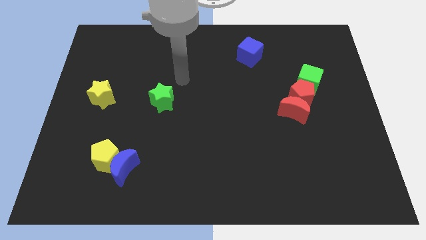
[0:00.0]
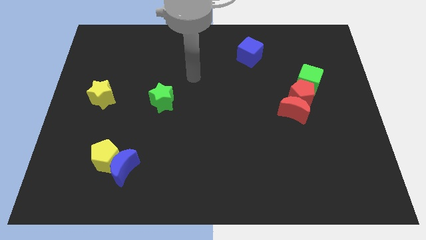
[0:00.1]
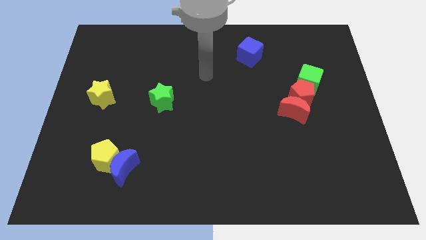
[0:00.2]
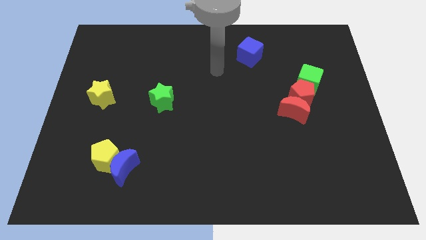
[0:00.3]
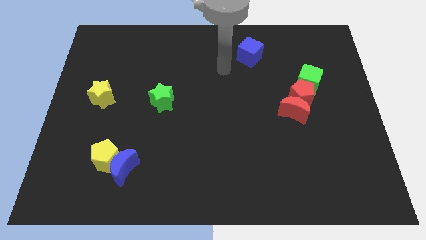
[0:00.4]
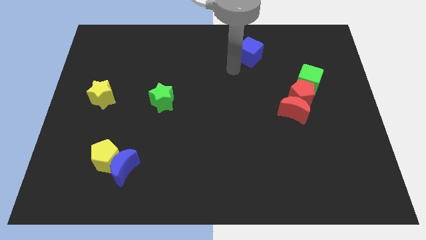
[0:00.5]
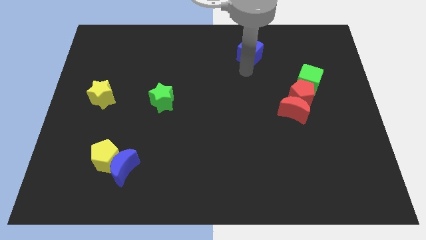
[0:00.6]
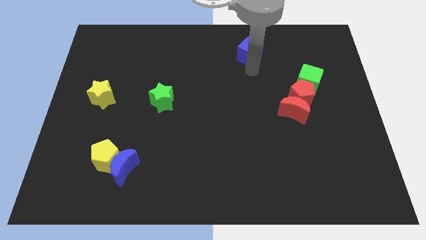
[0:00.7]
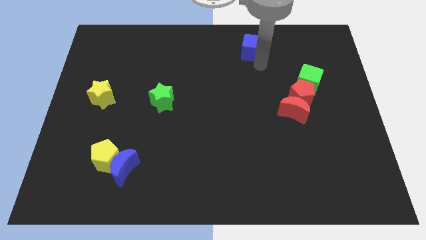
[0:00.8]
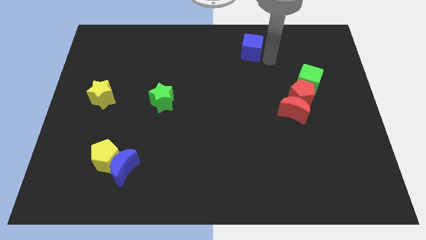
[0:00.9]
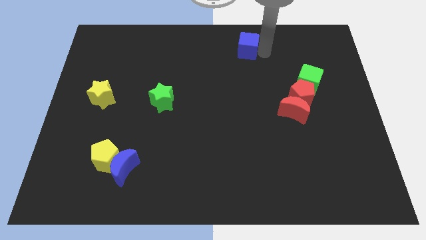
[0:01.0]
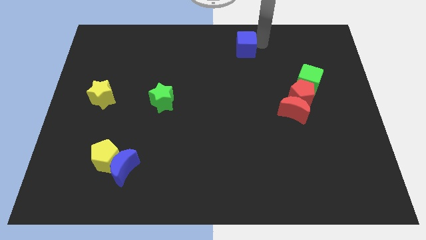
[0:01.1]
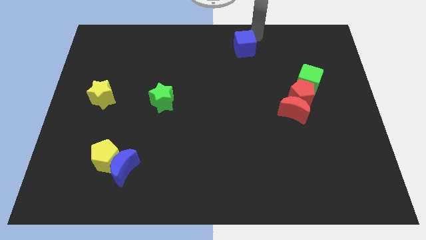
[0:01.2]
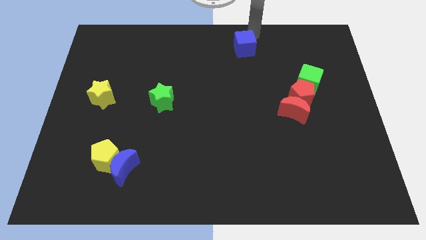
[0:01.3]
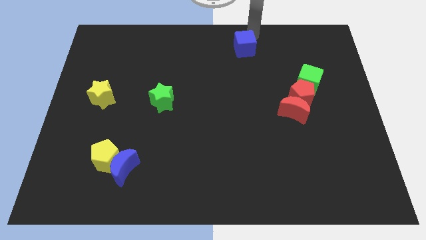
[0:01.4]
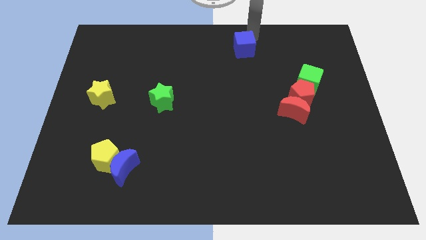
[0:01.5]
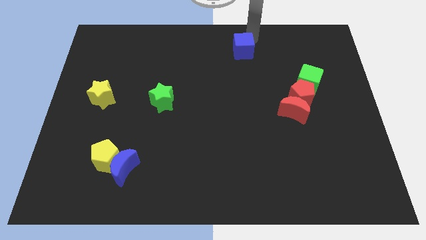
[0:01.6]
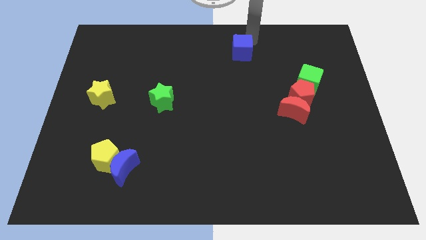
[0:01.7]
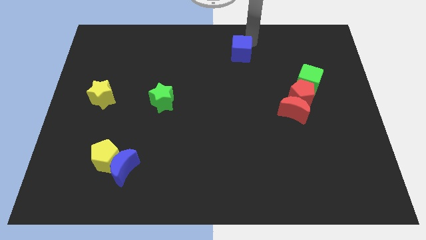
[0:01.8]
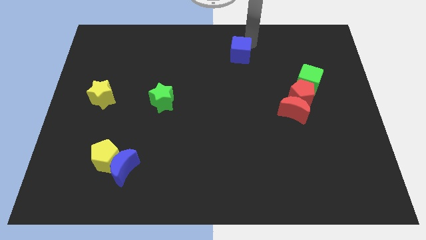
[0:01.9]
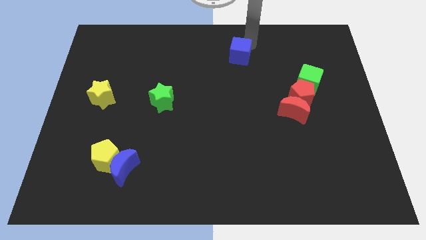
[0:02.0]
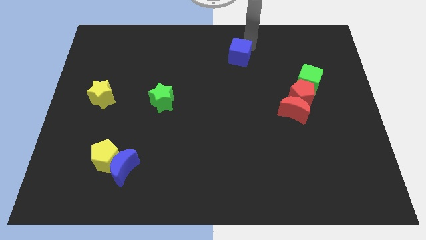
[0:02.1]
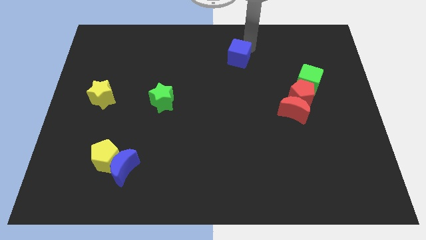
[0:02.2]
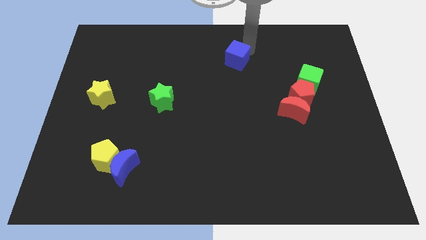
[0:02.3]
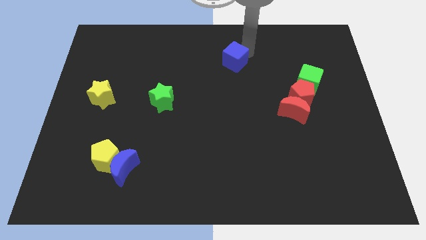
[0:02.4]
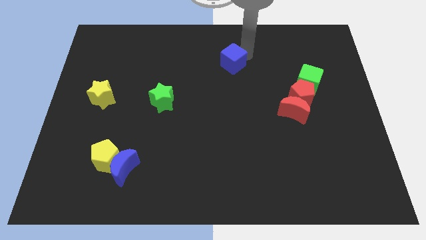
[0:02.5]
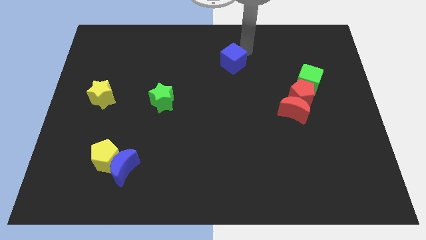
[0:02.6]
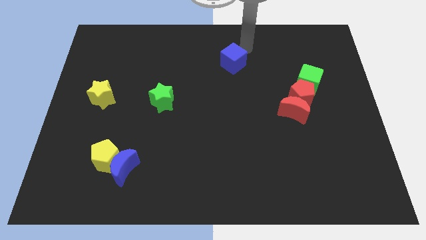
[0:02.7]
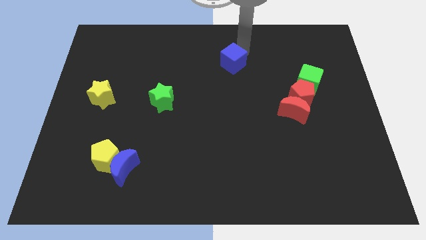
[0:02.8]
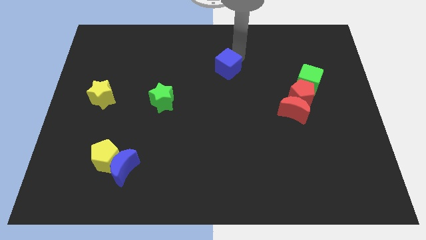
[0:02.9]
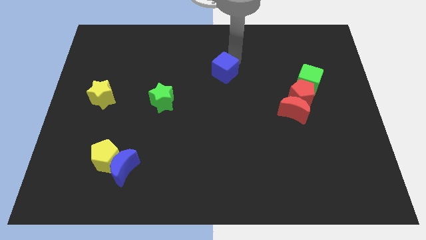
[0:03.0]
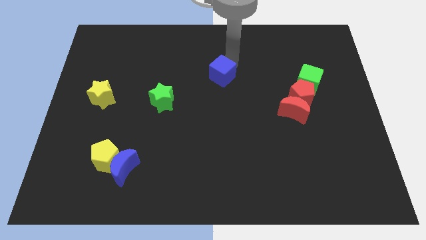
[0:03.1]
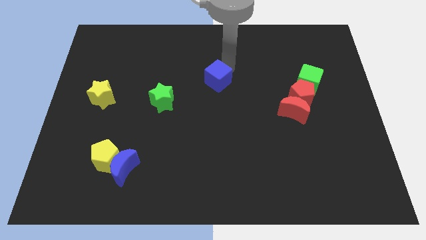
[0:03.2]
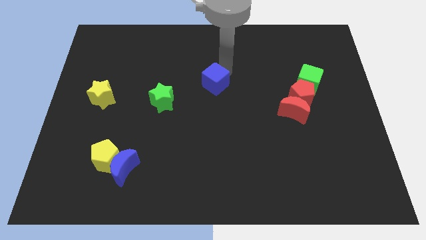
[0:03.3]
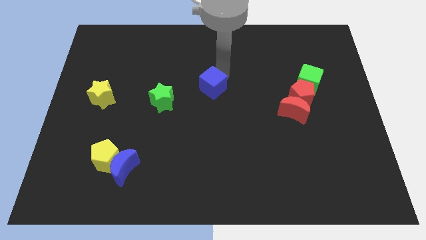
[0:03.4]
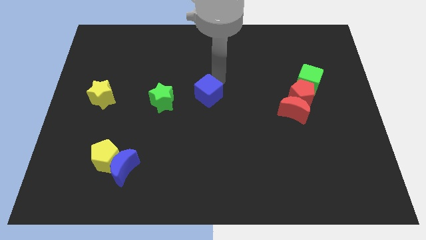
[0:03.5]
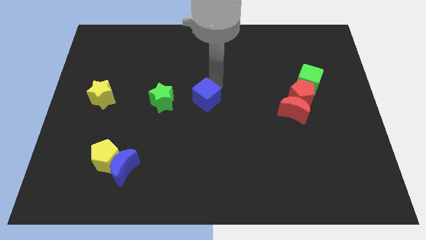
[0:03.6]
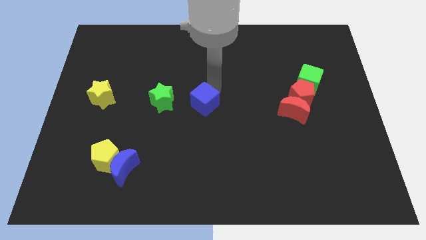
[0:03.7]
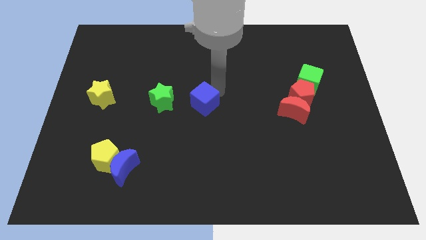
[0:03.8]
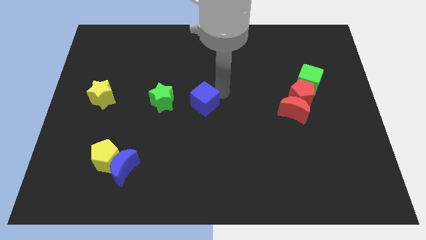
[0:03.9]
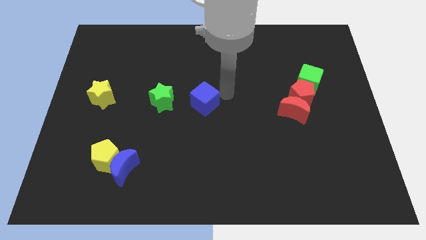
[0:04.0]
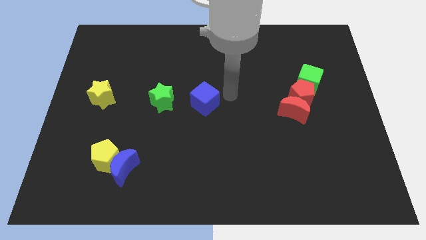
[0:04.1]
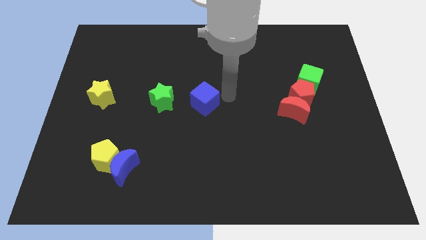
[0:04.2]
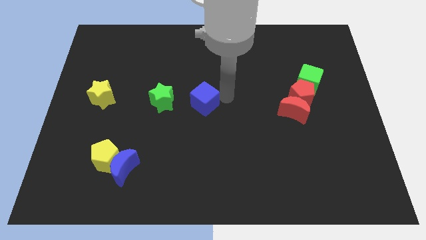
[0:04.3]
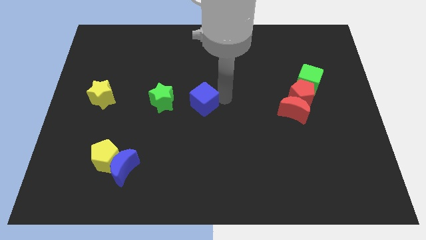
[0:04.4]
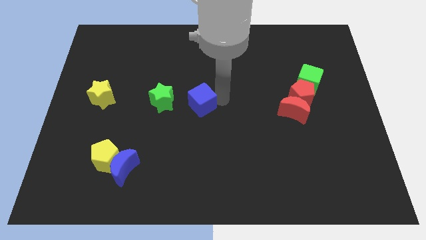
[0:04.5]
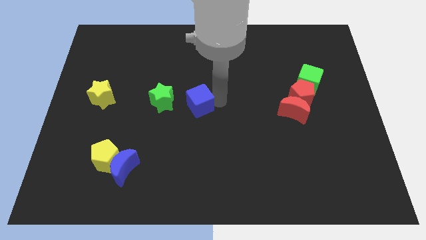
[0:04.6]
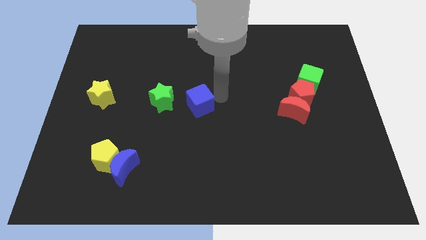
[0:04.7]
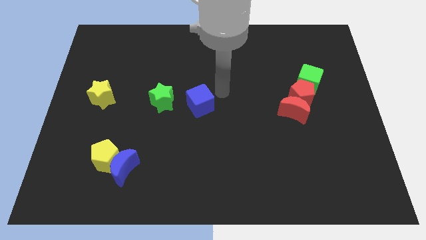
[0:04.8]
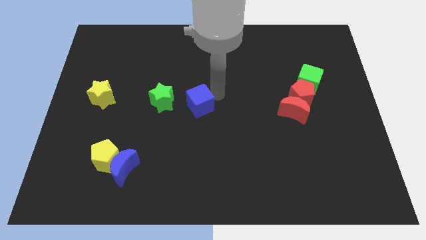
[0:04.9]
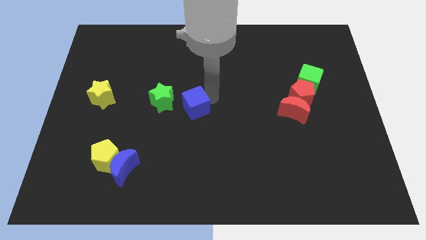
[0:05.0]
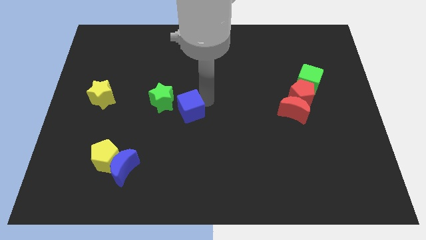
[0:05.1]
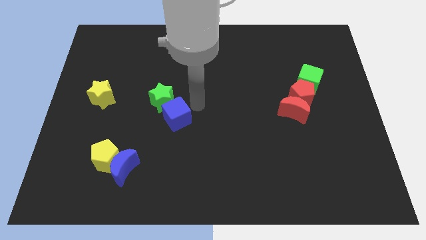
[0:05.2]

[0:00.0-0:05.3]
put the blue cube to the bottom side of the green star

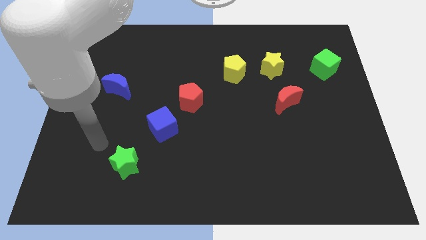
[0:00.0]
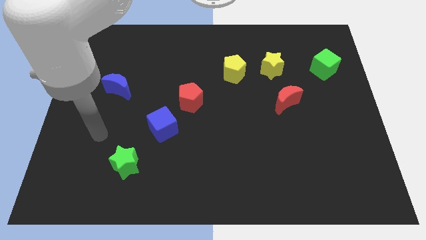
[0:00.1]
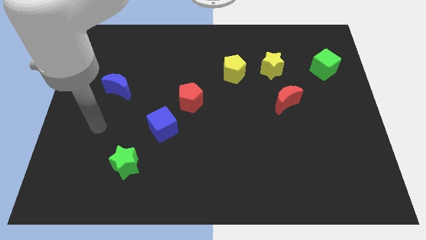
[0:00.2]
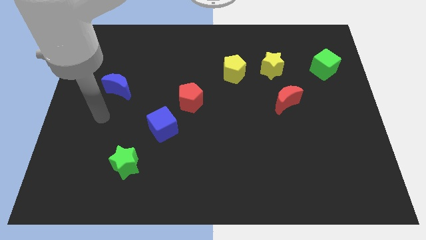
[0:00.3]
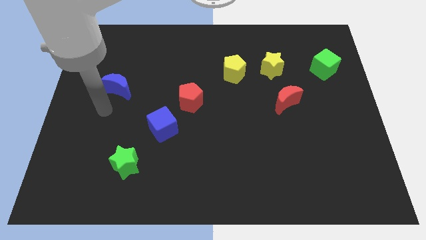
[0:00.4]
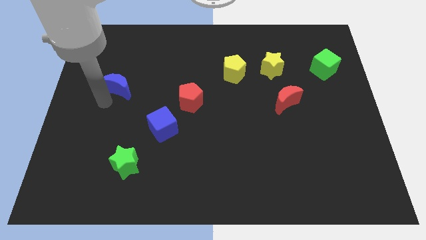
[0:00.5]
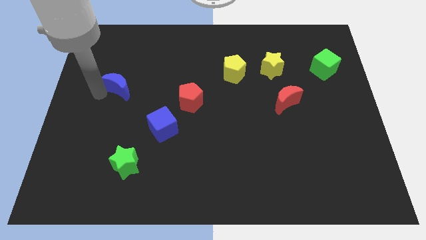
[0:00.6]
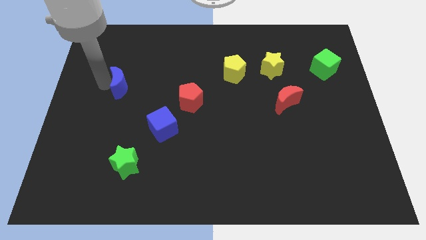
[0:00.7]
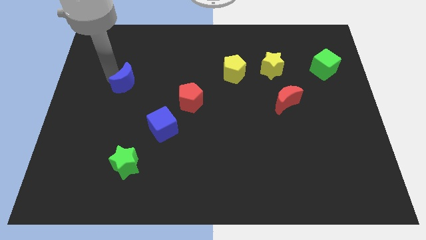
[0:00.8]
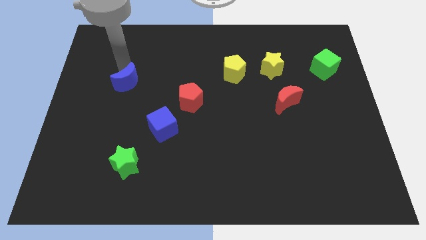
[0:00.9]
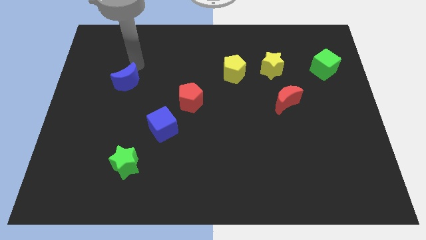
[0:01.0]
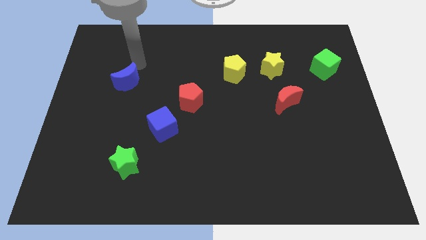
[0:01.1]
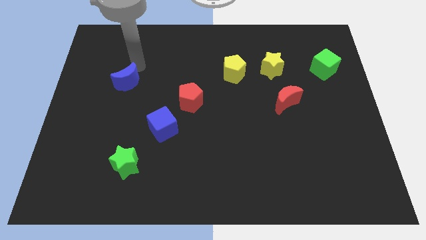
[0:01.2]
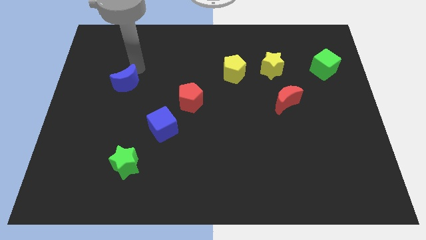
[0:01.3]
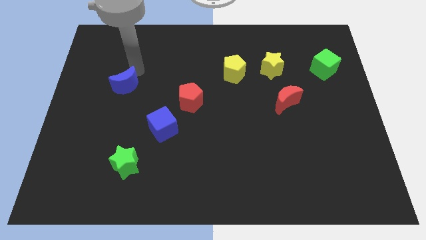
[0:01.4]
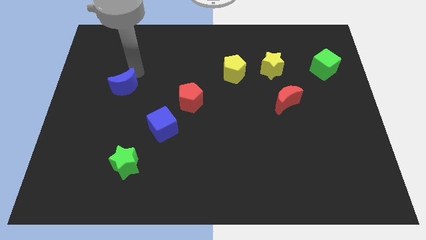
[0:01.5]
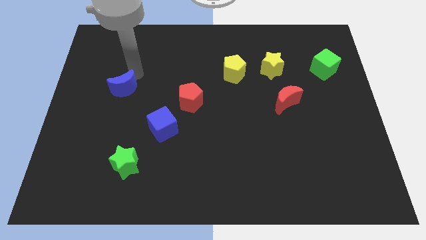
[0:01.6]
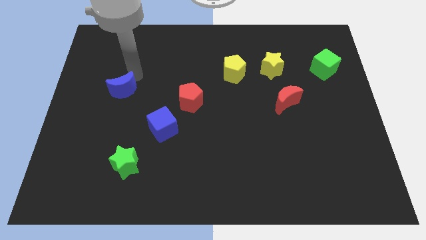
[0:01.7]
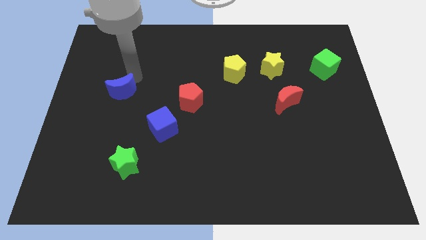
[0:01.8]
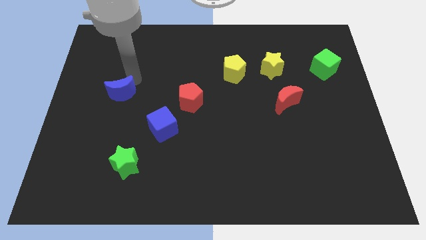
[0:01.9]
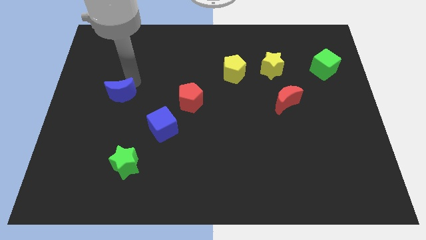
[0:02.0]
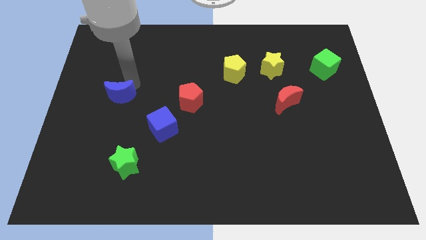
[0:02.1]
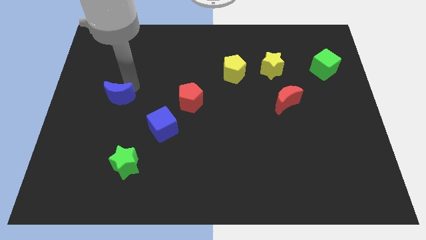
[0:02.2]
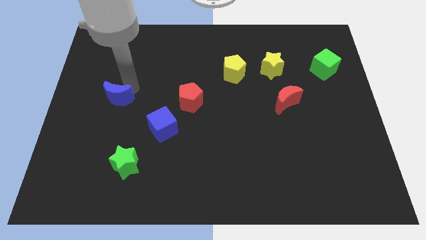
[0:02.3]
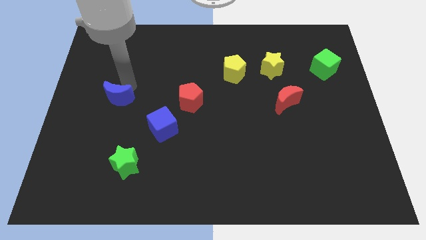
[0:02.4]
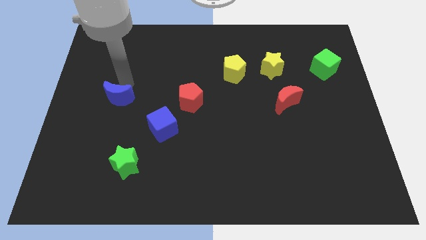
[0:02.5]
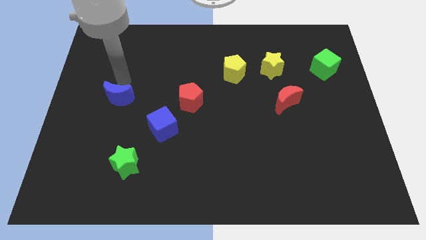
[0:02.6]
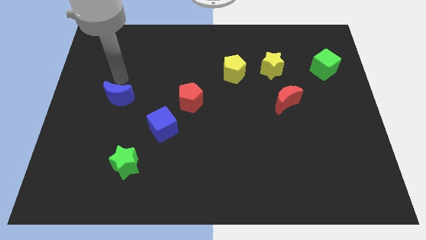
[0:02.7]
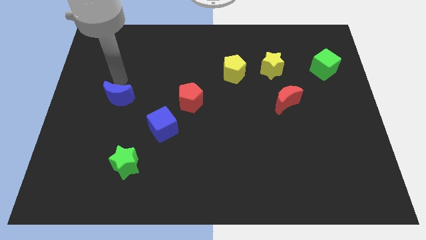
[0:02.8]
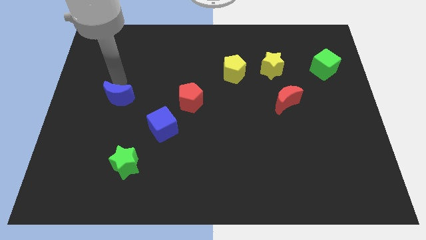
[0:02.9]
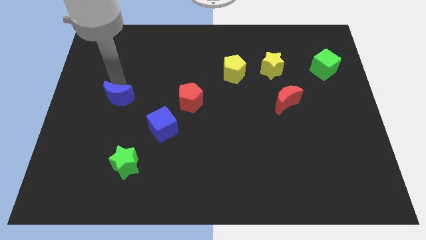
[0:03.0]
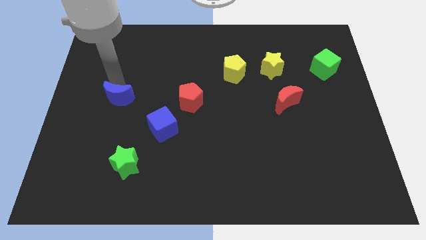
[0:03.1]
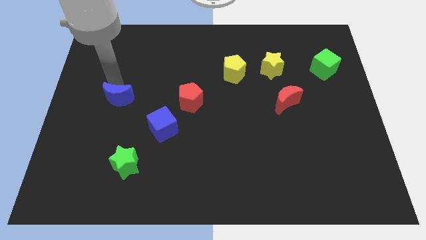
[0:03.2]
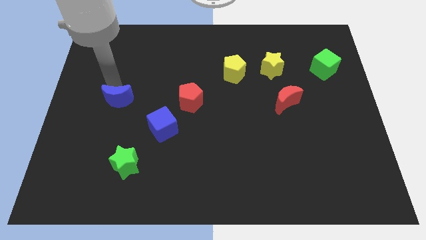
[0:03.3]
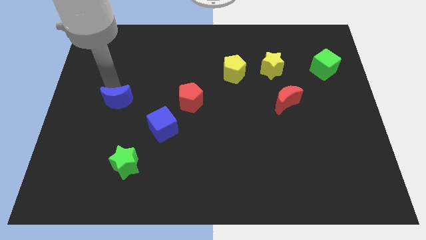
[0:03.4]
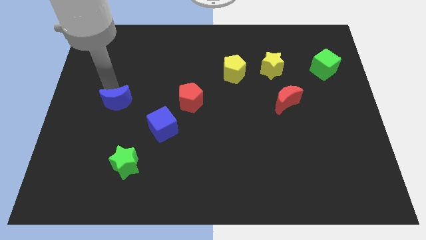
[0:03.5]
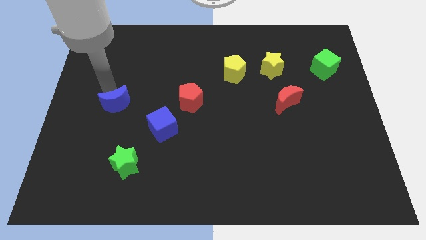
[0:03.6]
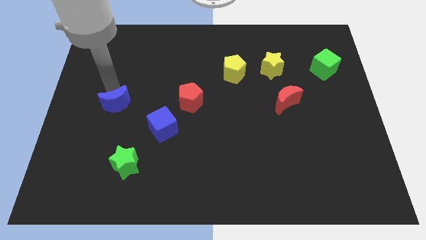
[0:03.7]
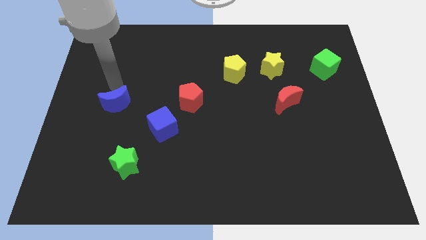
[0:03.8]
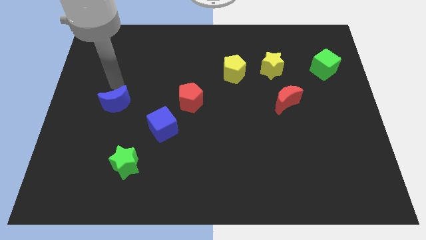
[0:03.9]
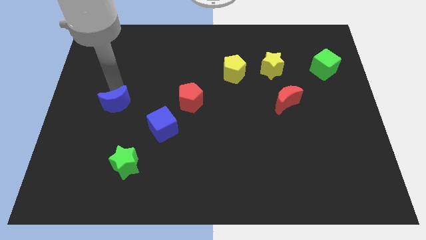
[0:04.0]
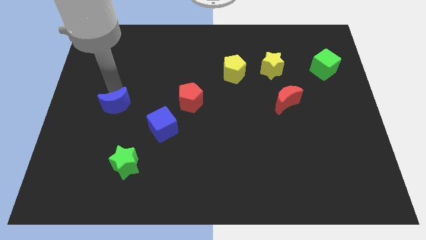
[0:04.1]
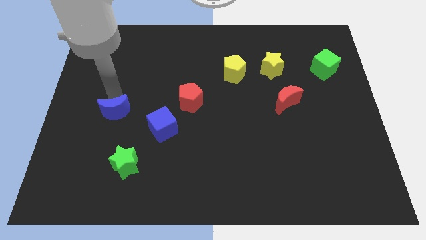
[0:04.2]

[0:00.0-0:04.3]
put the blue moon to the left side of the blue cube
